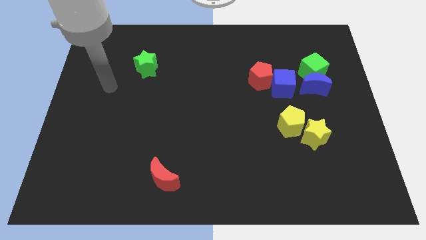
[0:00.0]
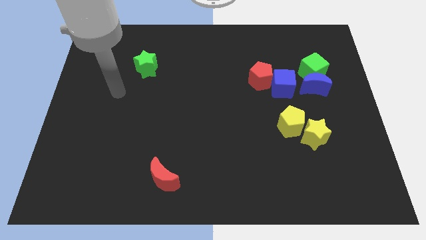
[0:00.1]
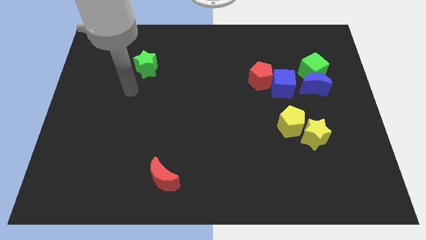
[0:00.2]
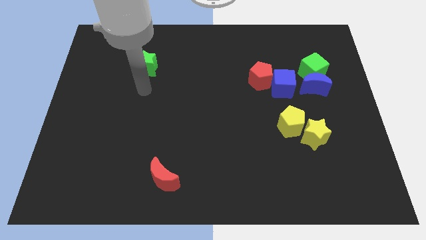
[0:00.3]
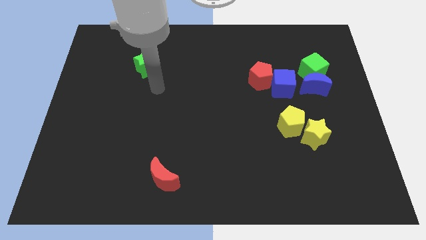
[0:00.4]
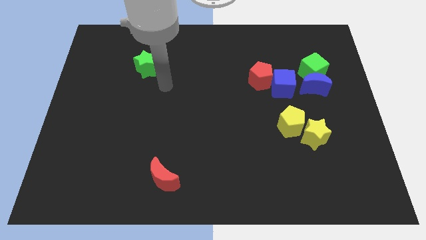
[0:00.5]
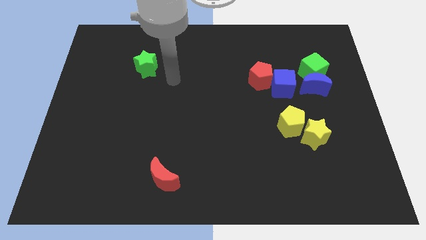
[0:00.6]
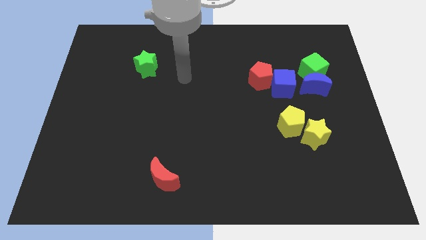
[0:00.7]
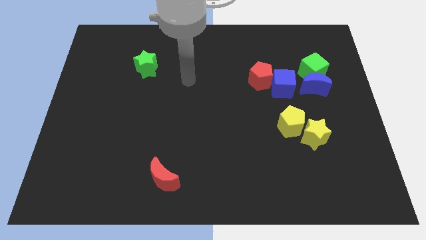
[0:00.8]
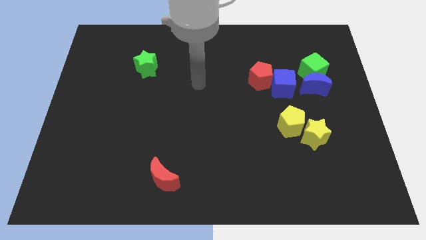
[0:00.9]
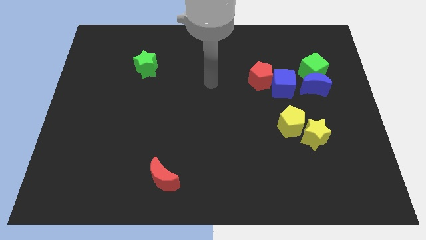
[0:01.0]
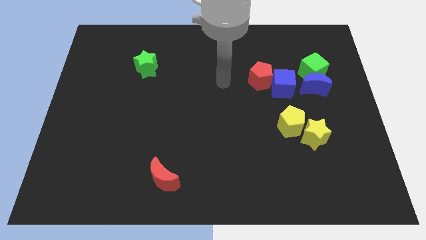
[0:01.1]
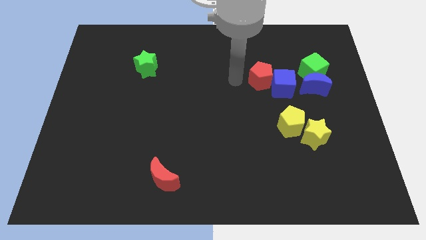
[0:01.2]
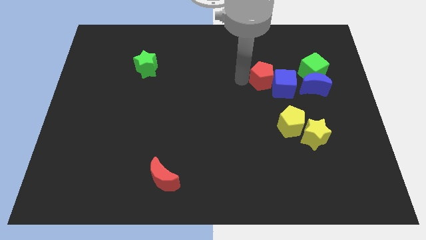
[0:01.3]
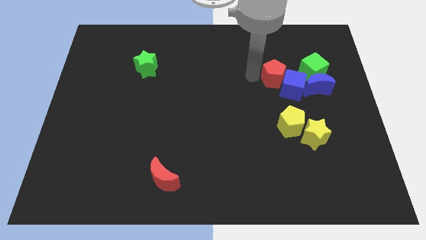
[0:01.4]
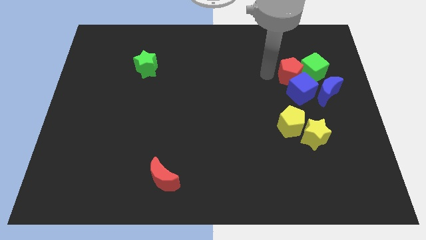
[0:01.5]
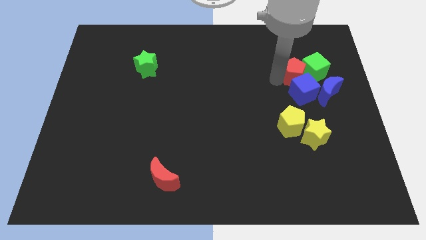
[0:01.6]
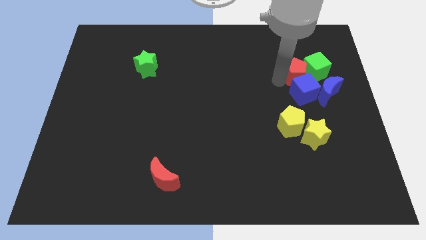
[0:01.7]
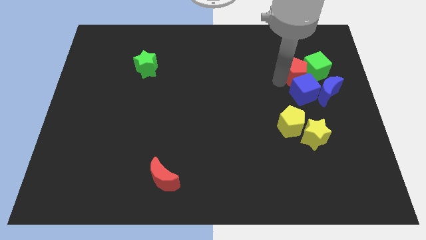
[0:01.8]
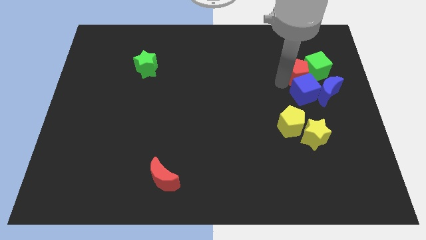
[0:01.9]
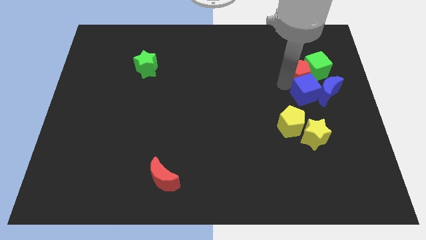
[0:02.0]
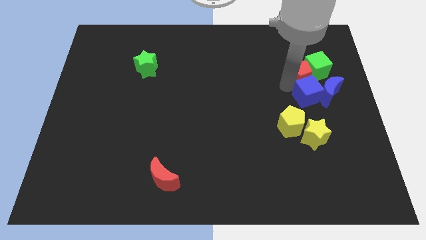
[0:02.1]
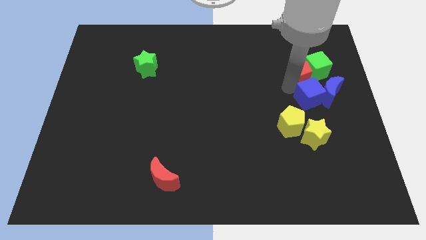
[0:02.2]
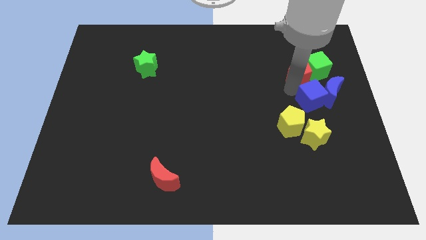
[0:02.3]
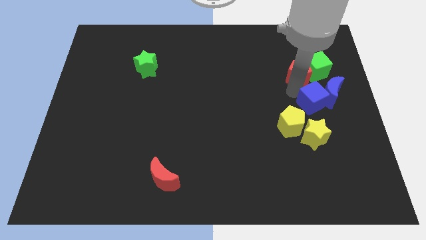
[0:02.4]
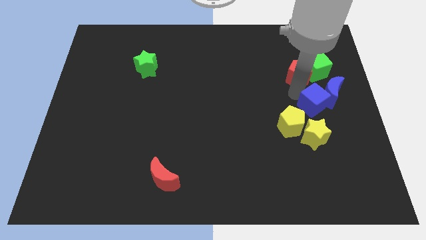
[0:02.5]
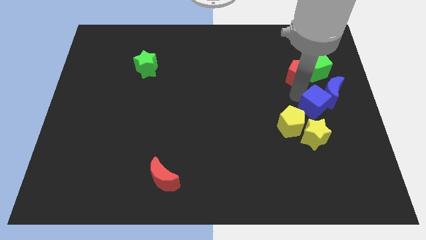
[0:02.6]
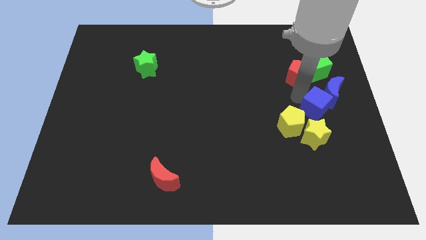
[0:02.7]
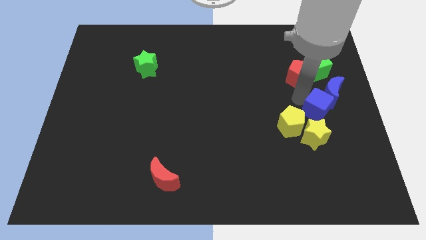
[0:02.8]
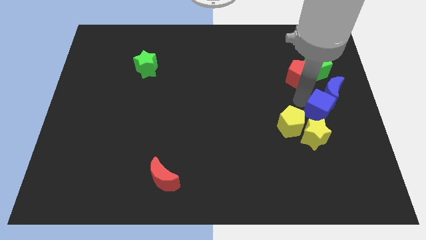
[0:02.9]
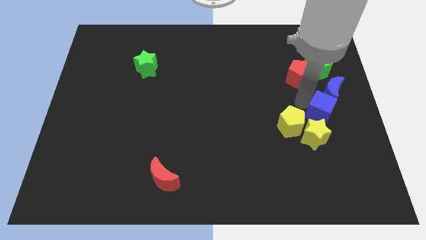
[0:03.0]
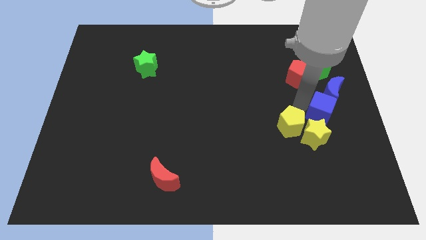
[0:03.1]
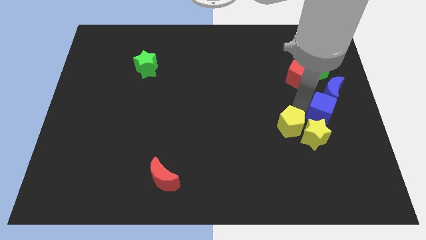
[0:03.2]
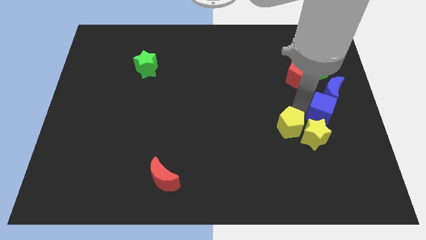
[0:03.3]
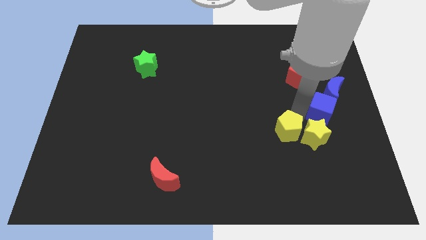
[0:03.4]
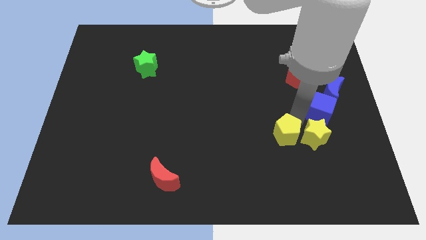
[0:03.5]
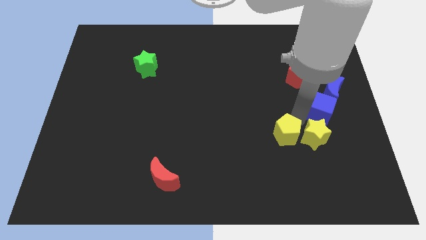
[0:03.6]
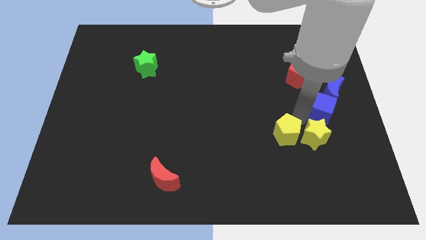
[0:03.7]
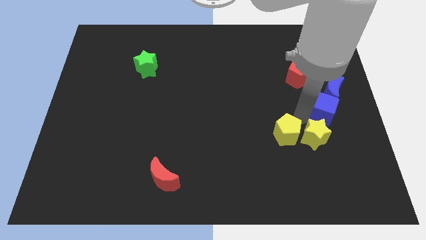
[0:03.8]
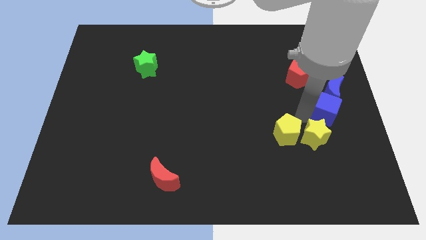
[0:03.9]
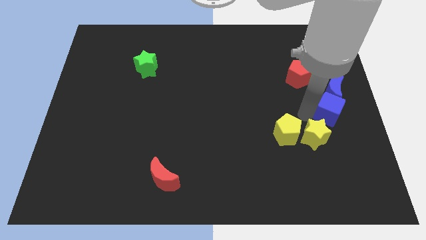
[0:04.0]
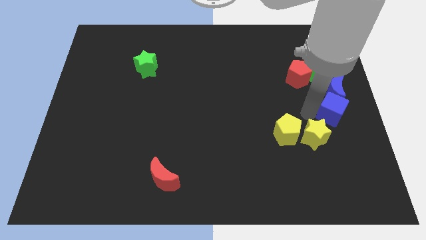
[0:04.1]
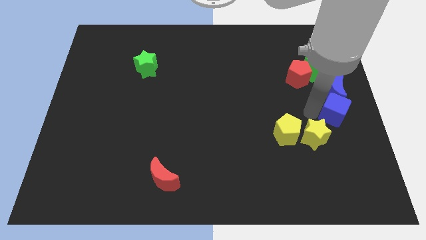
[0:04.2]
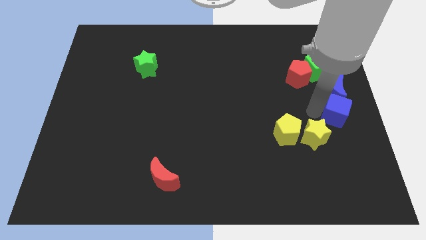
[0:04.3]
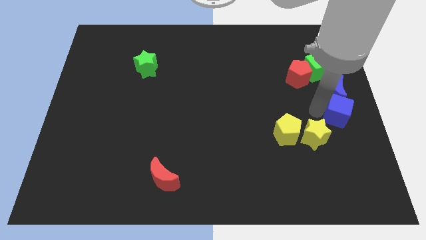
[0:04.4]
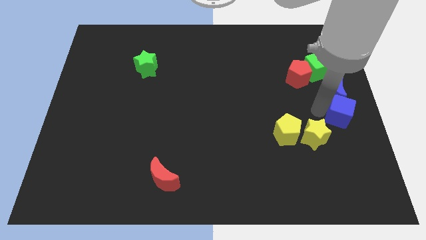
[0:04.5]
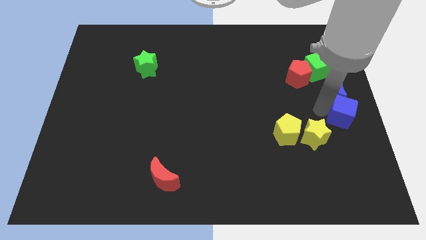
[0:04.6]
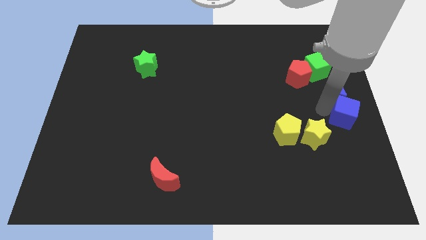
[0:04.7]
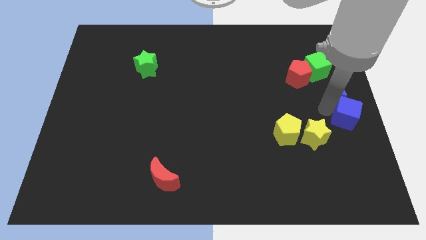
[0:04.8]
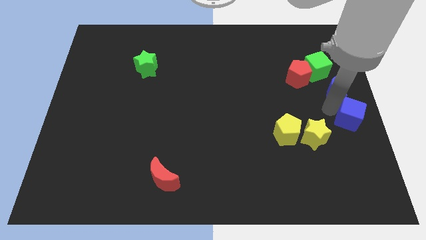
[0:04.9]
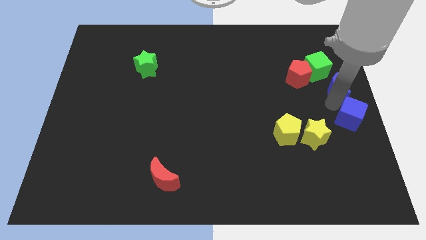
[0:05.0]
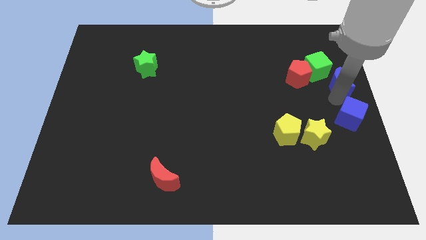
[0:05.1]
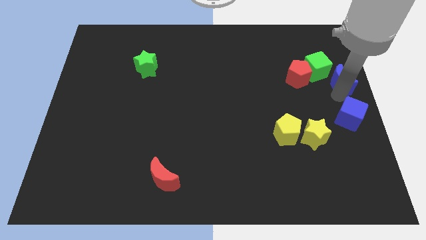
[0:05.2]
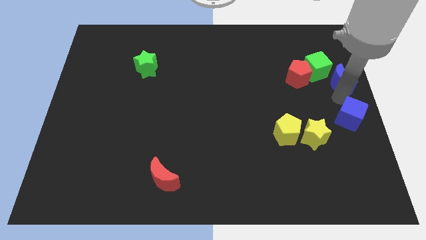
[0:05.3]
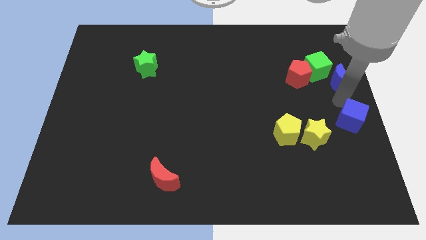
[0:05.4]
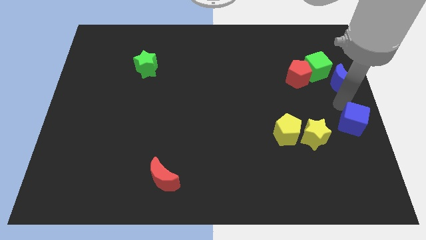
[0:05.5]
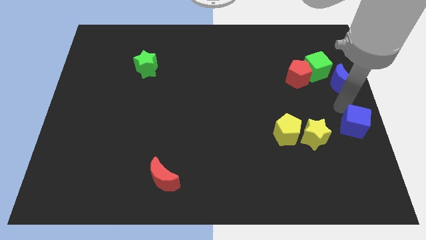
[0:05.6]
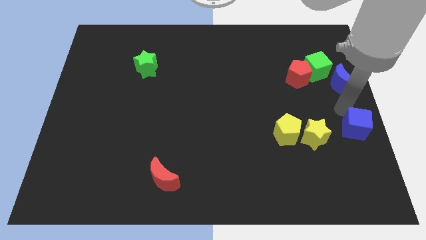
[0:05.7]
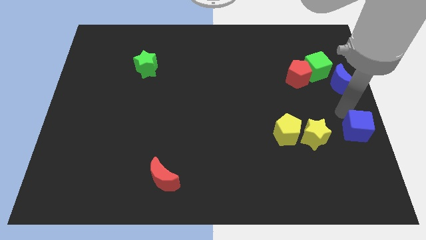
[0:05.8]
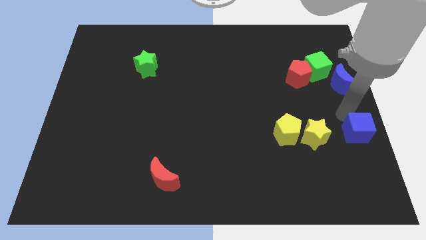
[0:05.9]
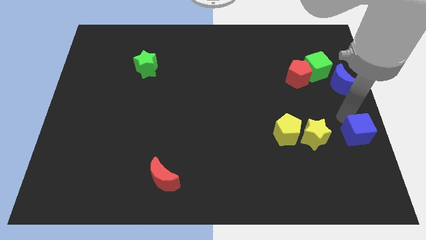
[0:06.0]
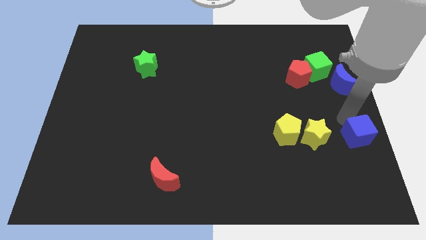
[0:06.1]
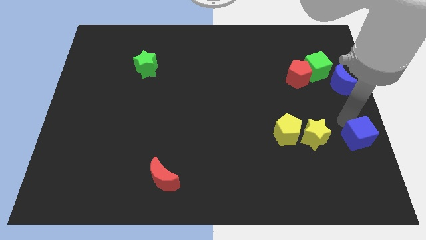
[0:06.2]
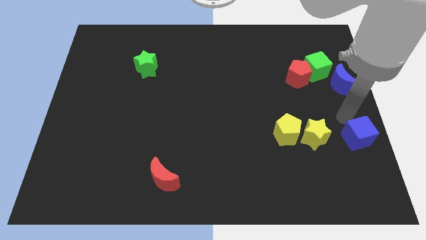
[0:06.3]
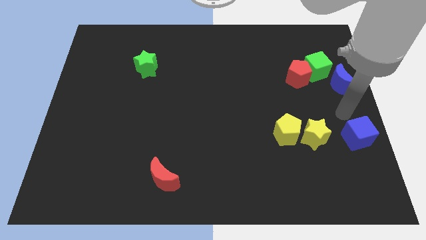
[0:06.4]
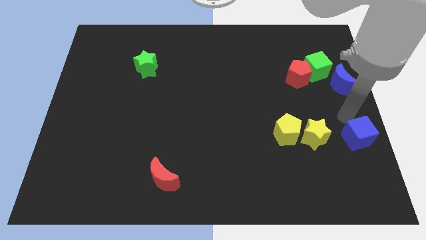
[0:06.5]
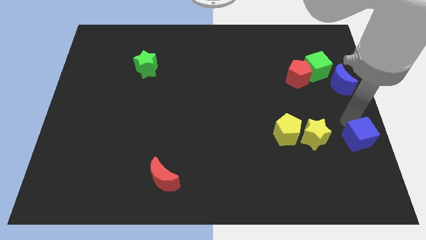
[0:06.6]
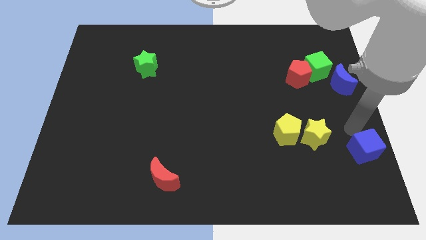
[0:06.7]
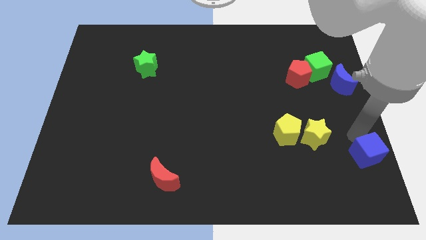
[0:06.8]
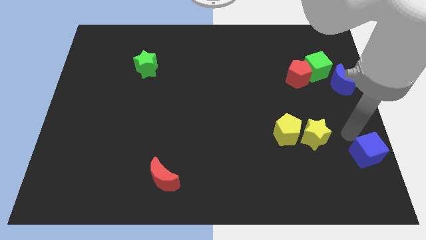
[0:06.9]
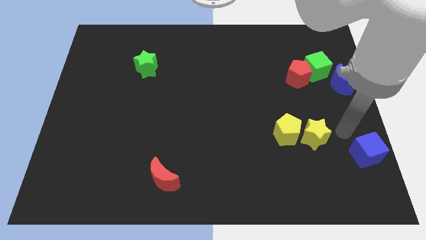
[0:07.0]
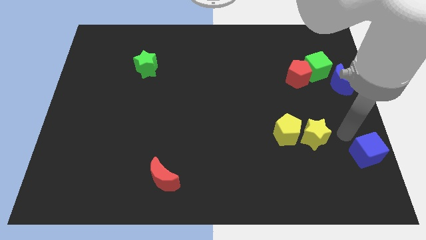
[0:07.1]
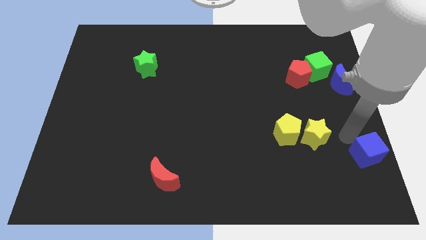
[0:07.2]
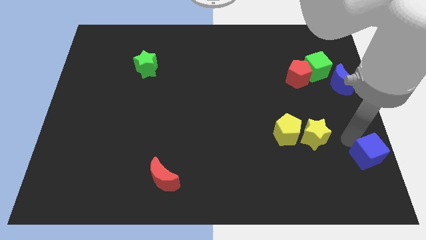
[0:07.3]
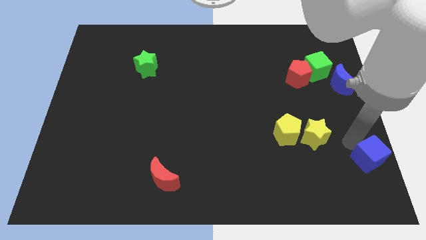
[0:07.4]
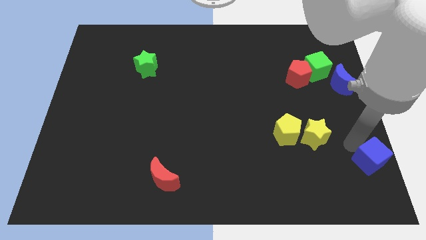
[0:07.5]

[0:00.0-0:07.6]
push the blue cube to the bottom right
